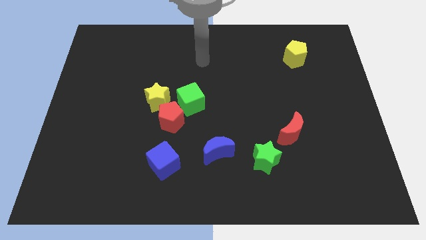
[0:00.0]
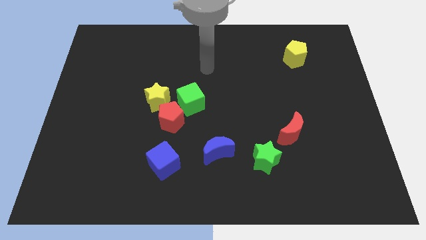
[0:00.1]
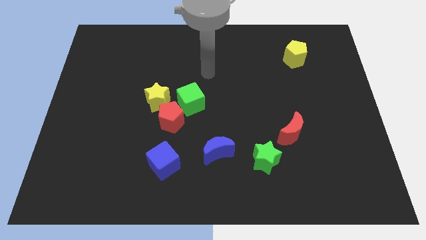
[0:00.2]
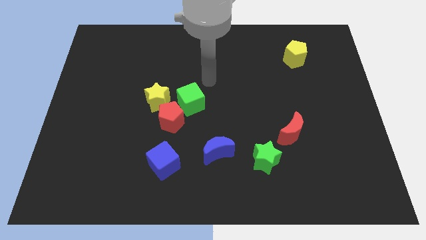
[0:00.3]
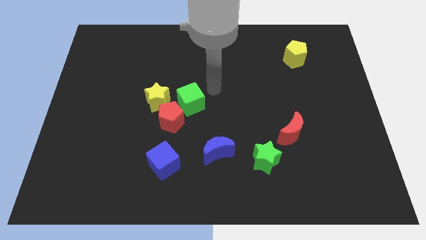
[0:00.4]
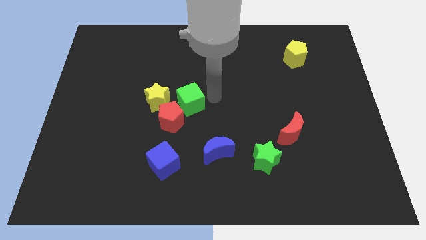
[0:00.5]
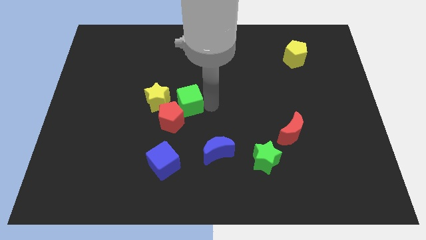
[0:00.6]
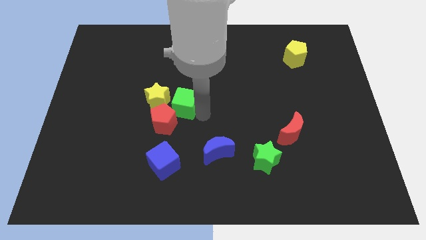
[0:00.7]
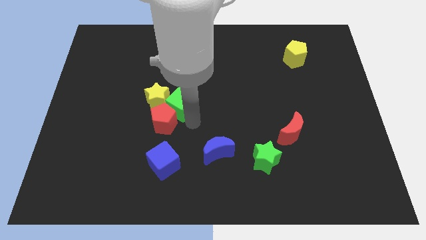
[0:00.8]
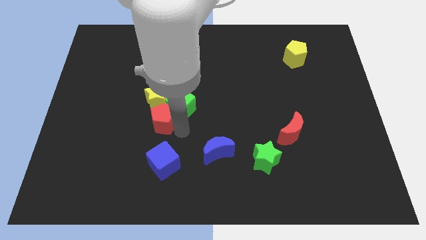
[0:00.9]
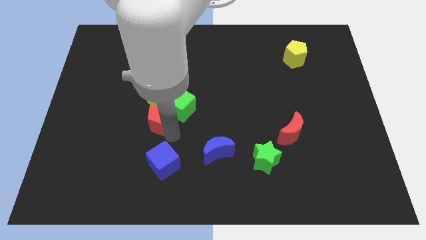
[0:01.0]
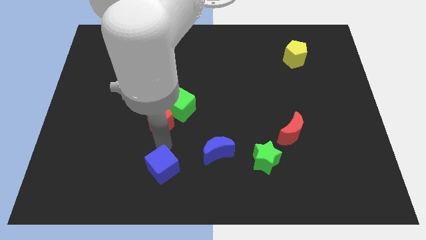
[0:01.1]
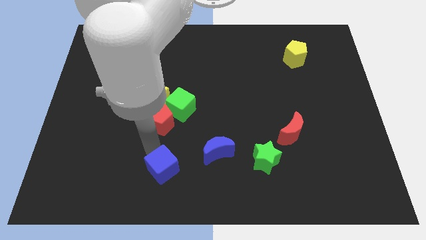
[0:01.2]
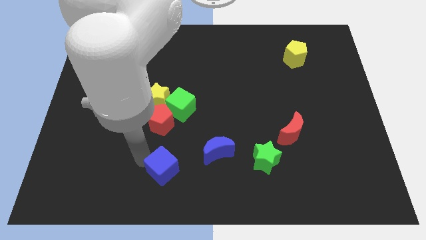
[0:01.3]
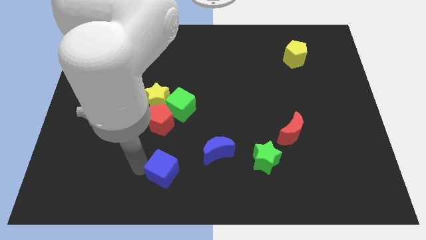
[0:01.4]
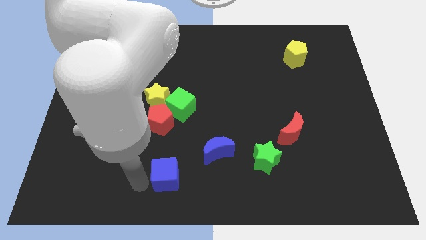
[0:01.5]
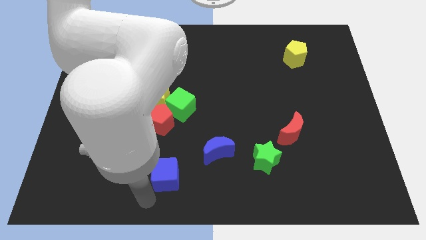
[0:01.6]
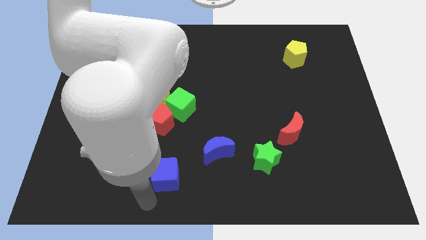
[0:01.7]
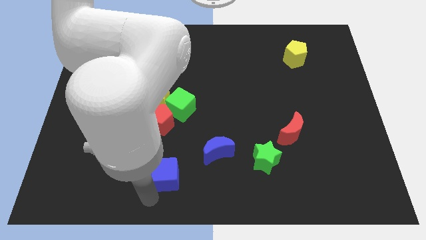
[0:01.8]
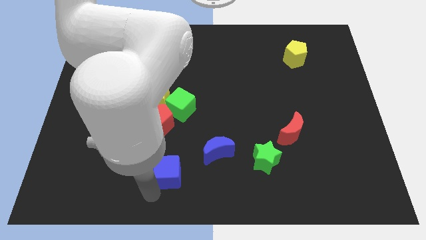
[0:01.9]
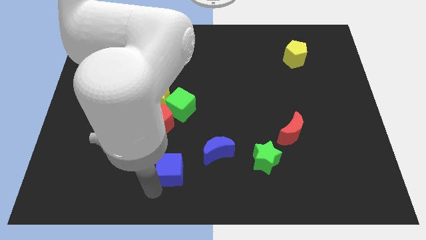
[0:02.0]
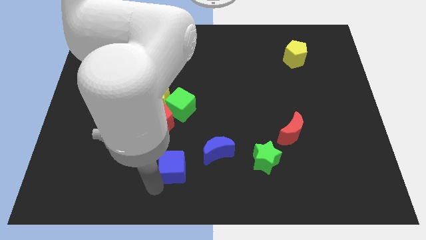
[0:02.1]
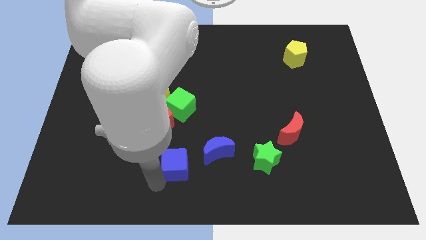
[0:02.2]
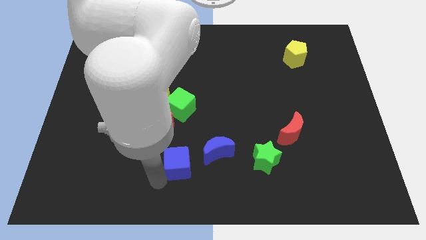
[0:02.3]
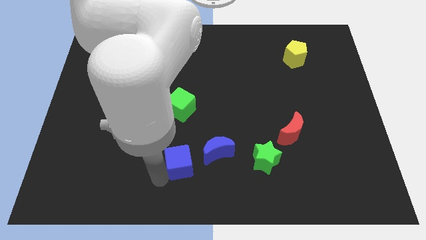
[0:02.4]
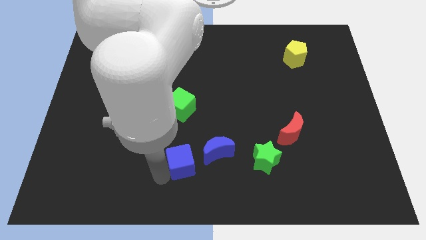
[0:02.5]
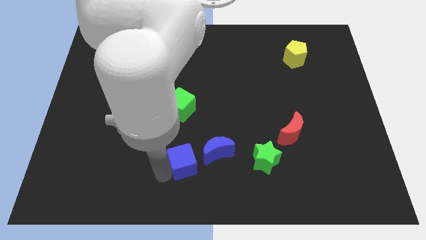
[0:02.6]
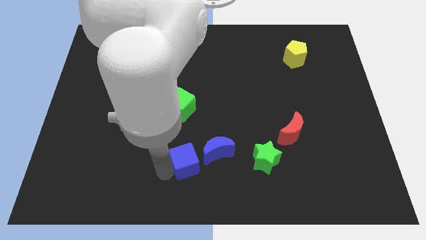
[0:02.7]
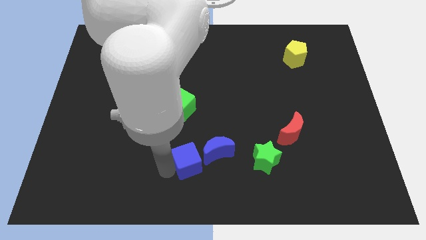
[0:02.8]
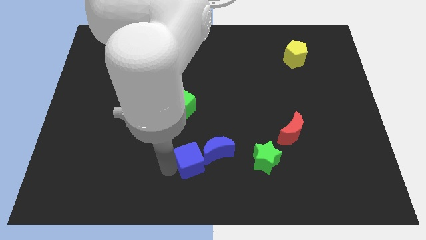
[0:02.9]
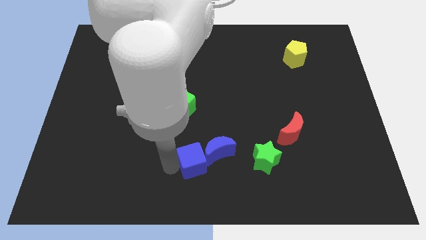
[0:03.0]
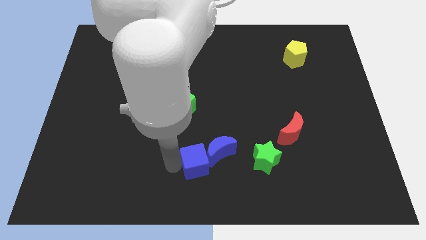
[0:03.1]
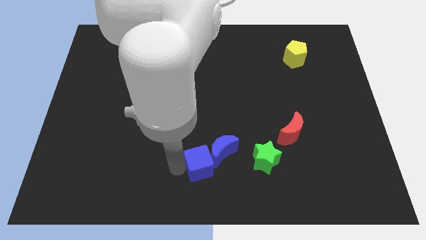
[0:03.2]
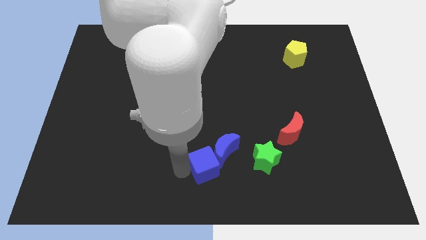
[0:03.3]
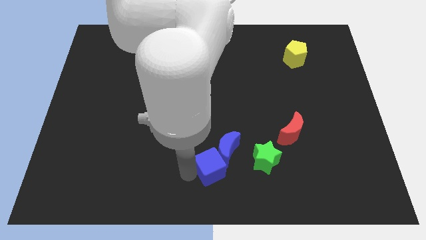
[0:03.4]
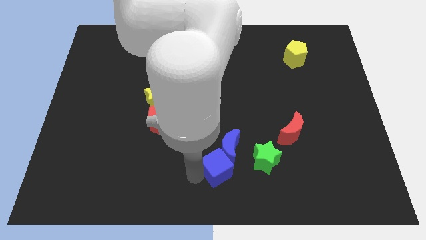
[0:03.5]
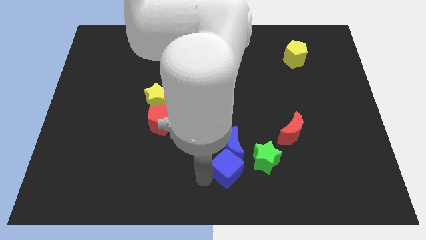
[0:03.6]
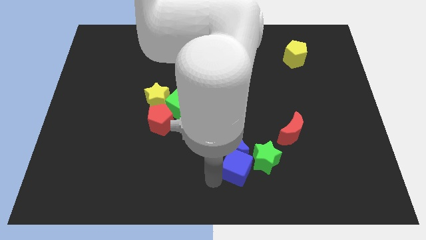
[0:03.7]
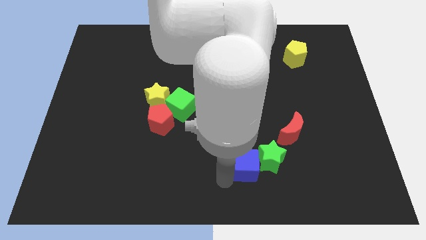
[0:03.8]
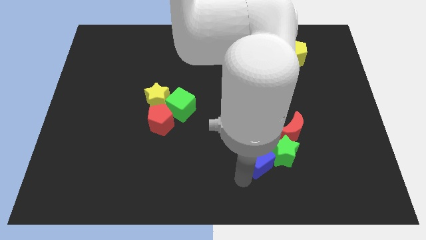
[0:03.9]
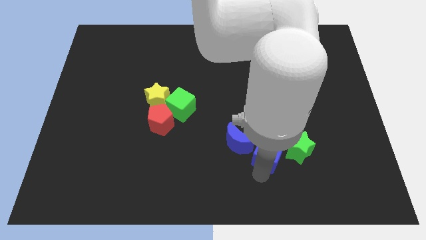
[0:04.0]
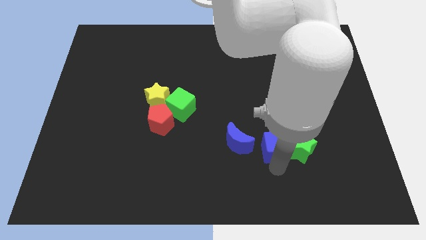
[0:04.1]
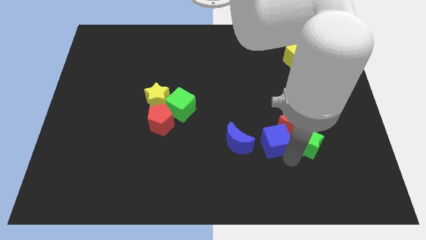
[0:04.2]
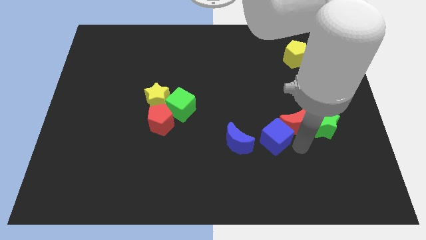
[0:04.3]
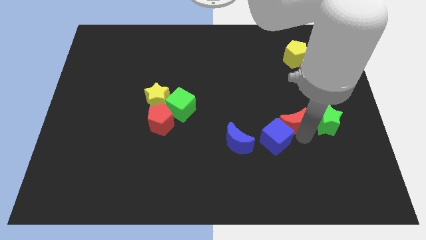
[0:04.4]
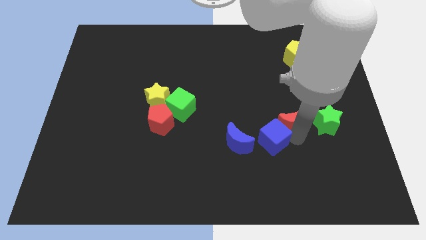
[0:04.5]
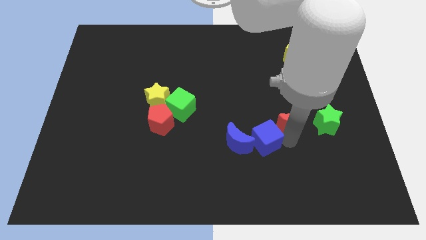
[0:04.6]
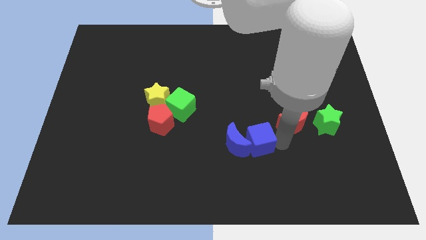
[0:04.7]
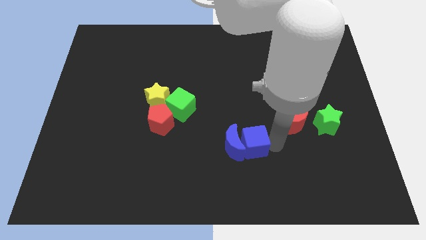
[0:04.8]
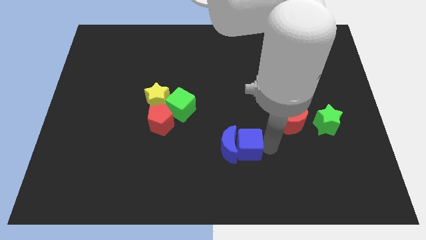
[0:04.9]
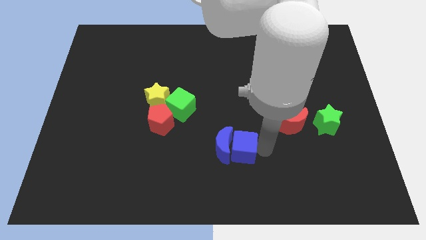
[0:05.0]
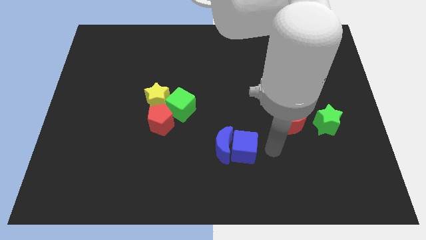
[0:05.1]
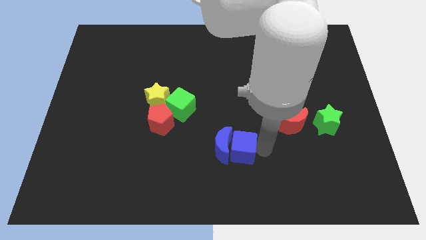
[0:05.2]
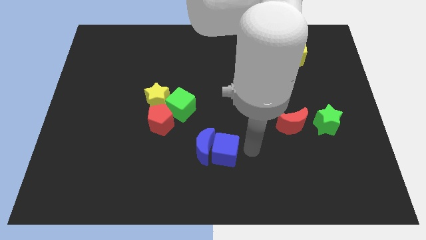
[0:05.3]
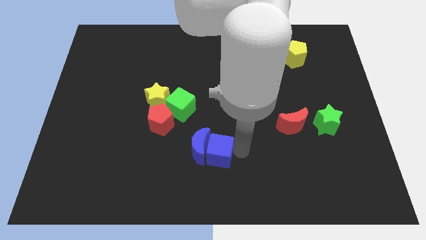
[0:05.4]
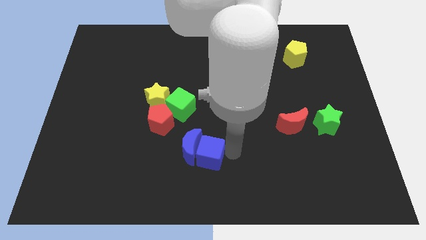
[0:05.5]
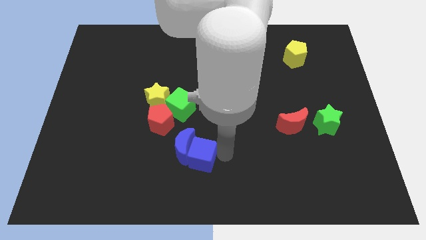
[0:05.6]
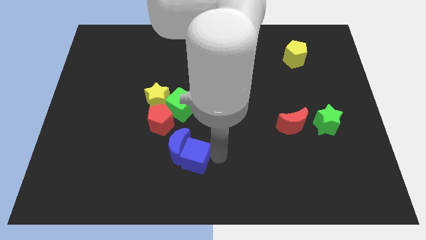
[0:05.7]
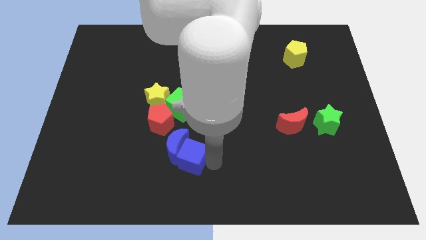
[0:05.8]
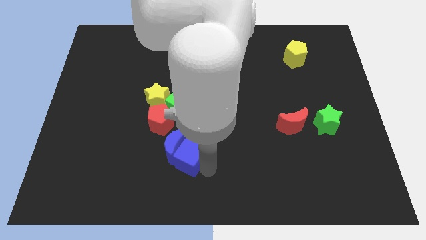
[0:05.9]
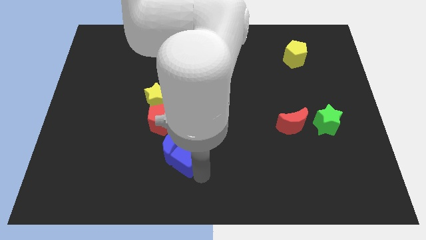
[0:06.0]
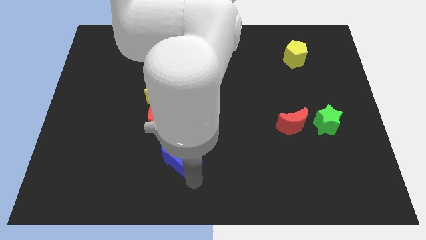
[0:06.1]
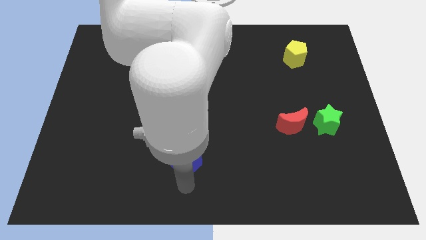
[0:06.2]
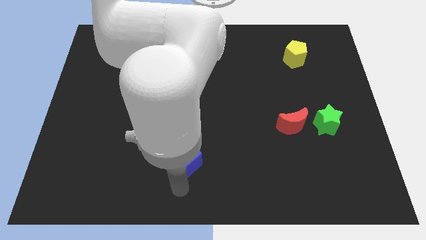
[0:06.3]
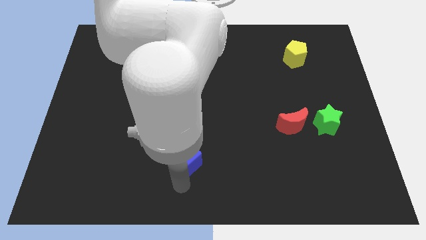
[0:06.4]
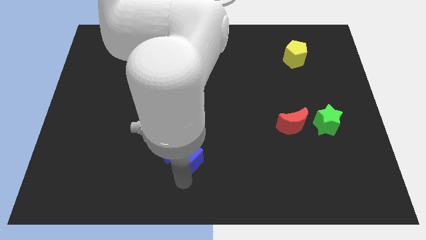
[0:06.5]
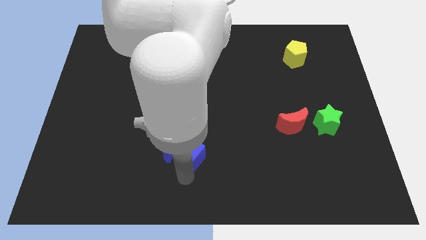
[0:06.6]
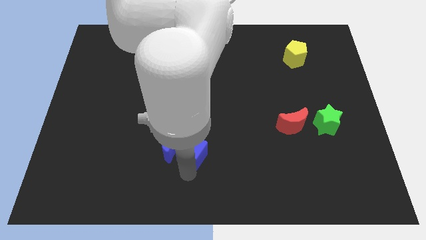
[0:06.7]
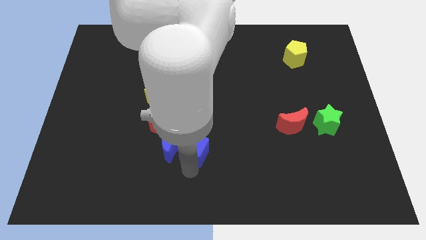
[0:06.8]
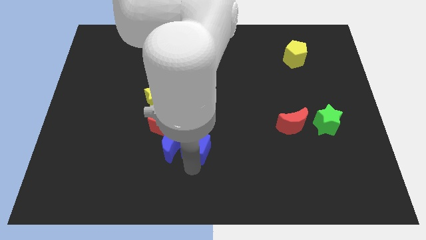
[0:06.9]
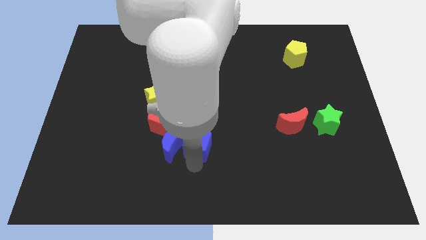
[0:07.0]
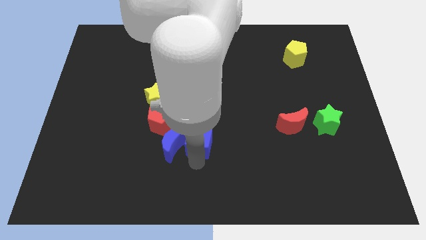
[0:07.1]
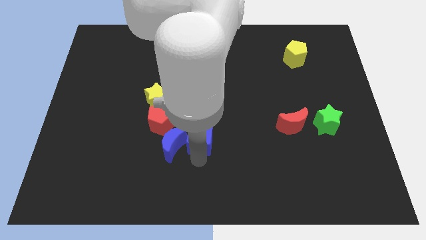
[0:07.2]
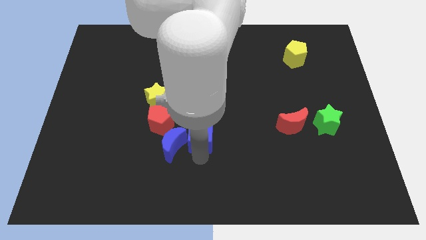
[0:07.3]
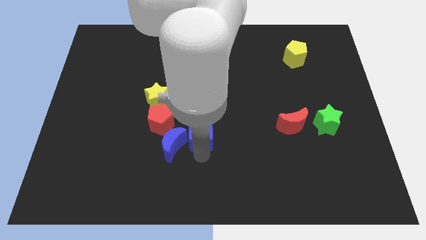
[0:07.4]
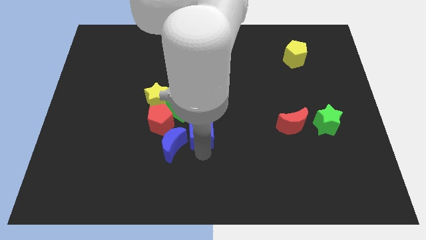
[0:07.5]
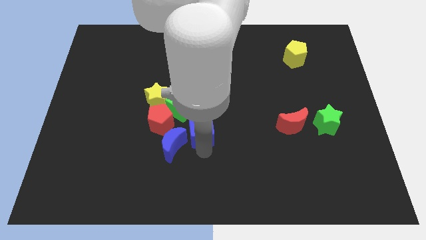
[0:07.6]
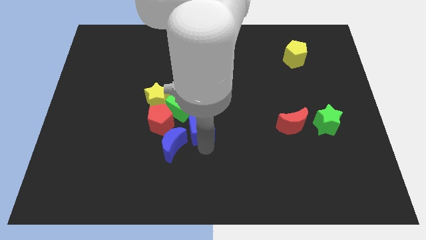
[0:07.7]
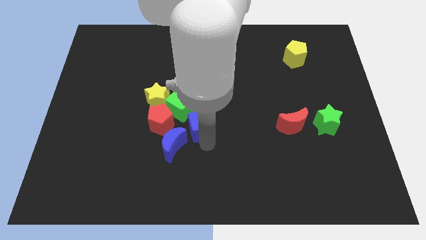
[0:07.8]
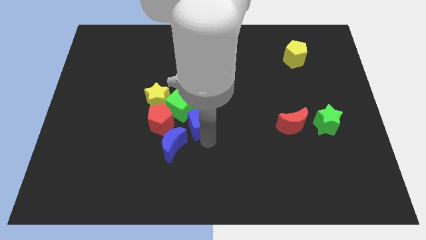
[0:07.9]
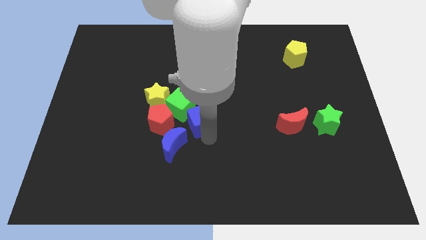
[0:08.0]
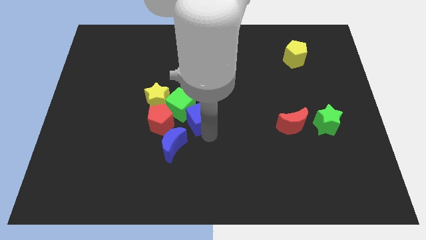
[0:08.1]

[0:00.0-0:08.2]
move the blue cube close to the green cube
